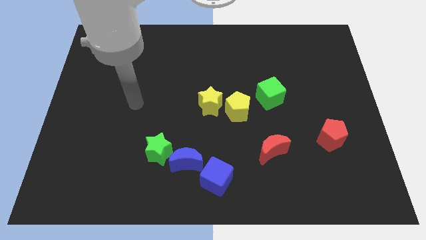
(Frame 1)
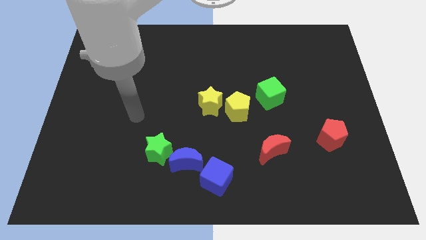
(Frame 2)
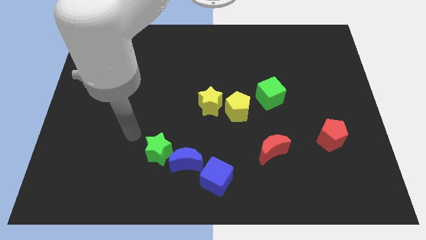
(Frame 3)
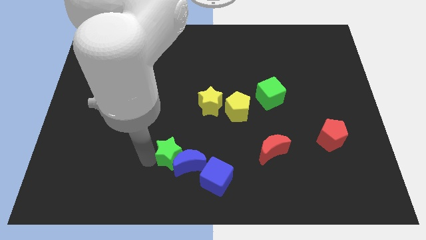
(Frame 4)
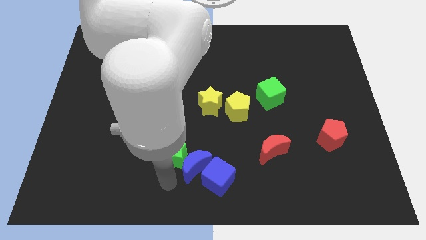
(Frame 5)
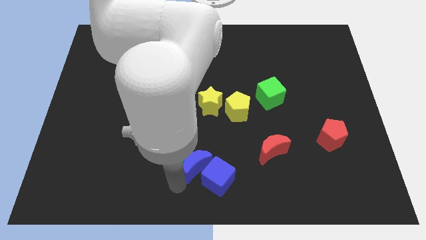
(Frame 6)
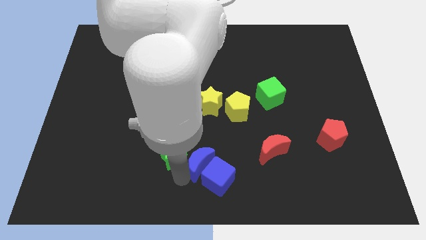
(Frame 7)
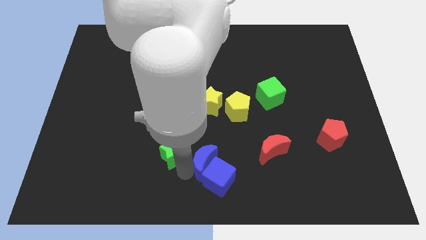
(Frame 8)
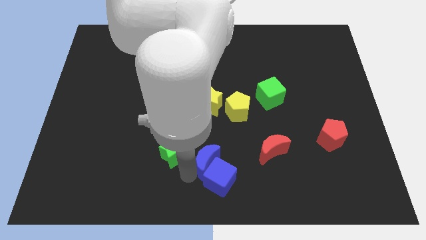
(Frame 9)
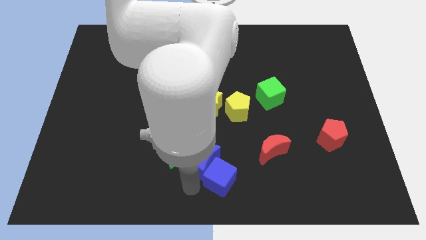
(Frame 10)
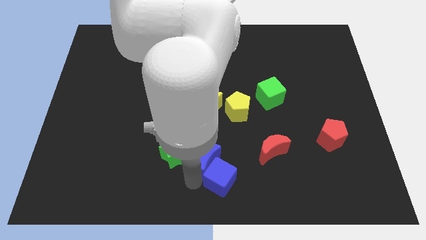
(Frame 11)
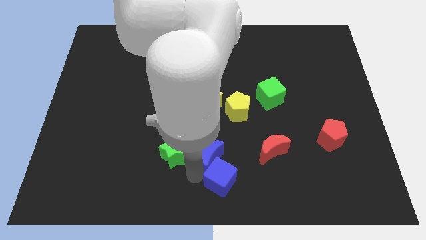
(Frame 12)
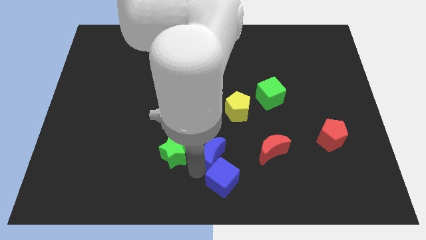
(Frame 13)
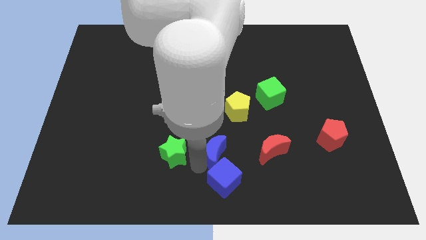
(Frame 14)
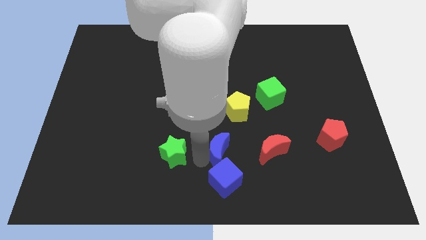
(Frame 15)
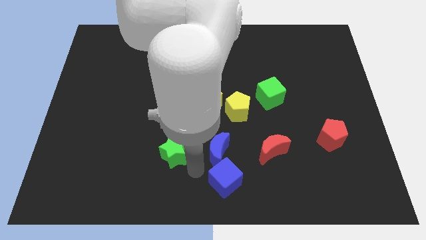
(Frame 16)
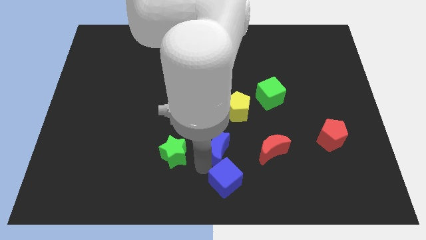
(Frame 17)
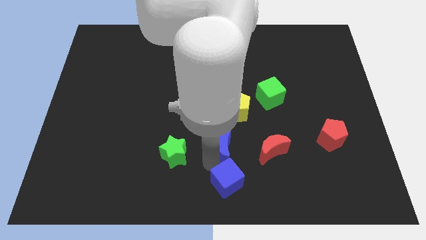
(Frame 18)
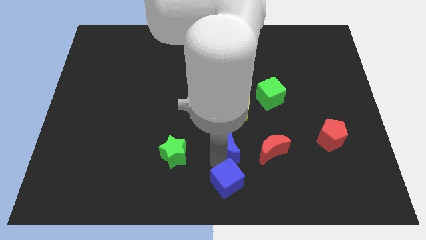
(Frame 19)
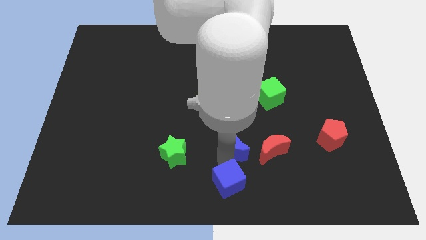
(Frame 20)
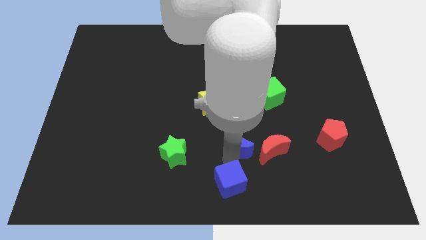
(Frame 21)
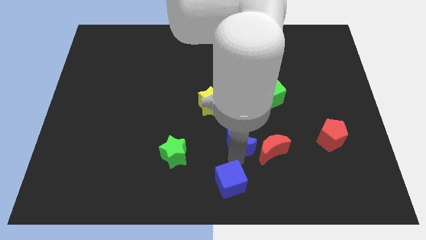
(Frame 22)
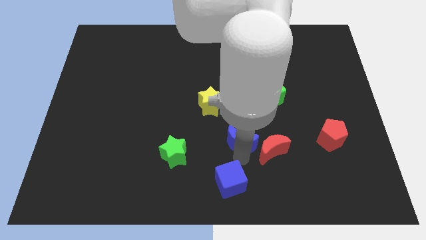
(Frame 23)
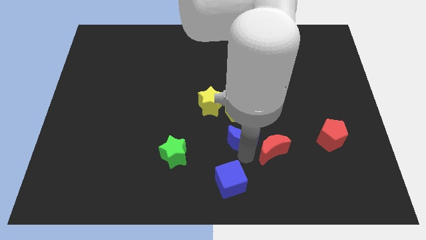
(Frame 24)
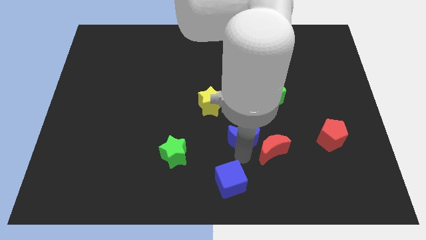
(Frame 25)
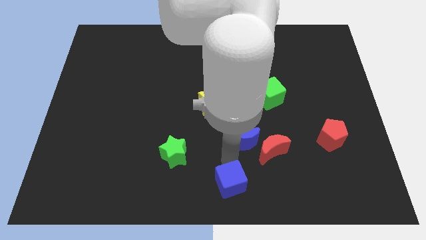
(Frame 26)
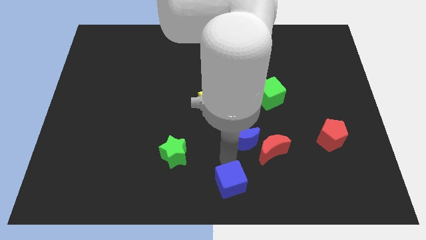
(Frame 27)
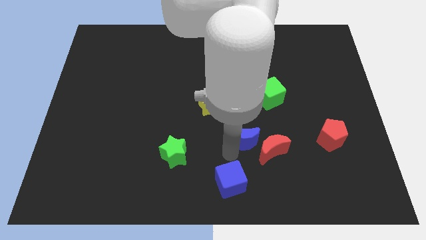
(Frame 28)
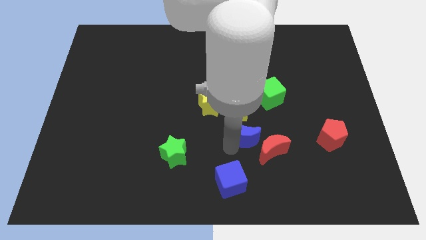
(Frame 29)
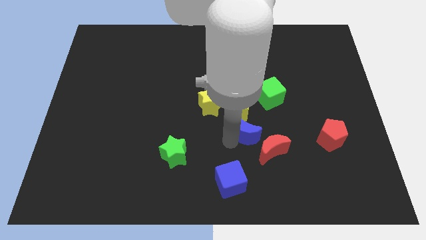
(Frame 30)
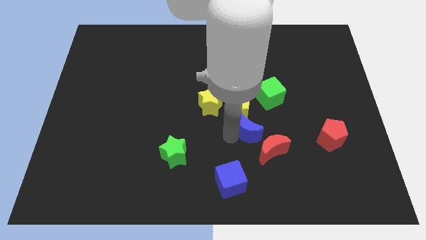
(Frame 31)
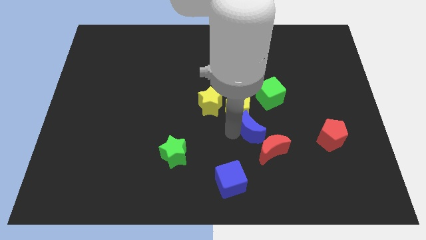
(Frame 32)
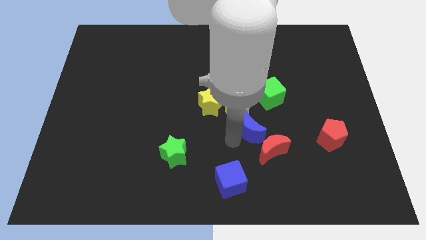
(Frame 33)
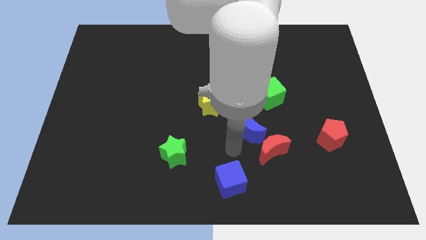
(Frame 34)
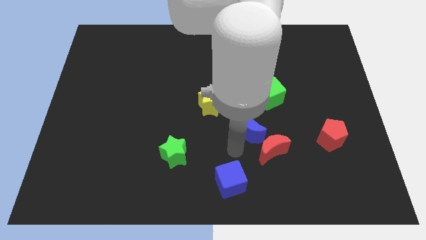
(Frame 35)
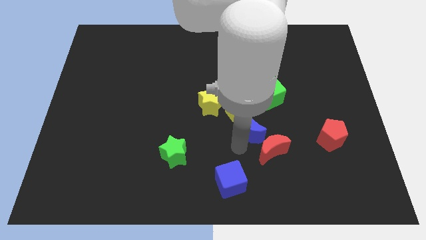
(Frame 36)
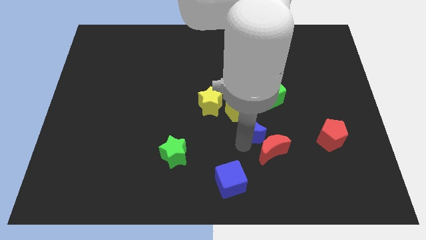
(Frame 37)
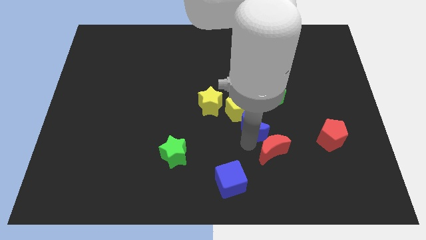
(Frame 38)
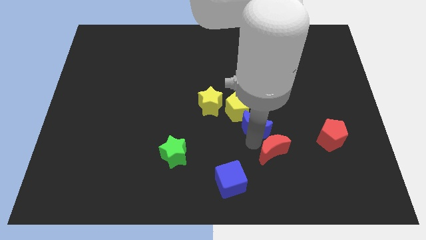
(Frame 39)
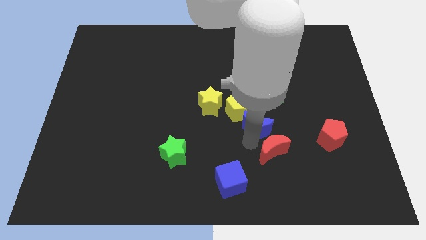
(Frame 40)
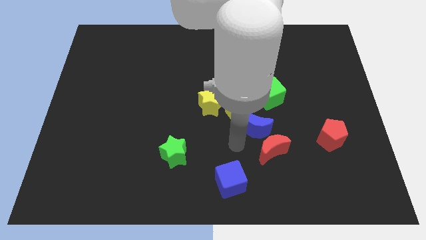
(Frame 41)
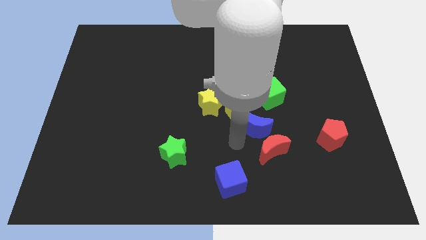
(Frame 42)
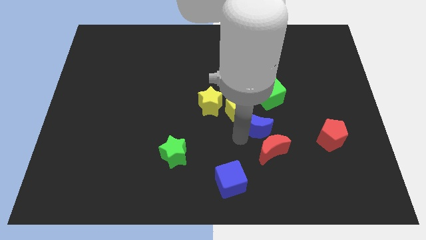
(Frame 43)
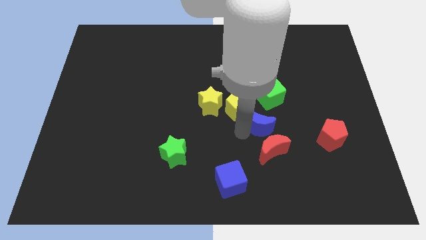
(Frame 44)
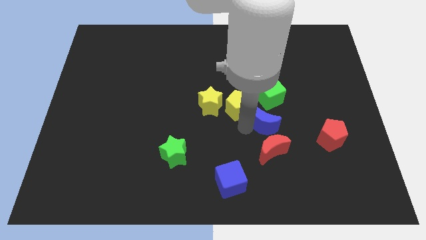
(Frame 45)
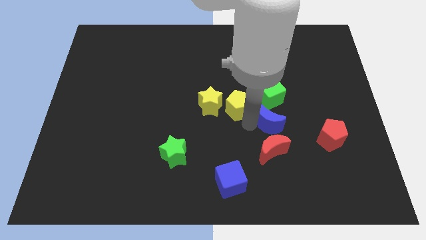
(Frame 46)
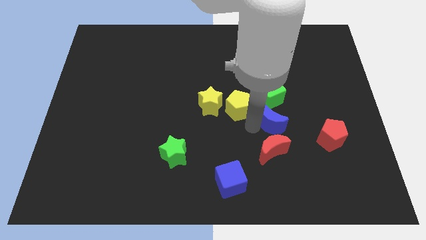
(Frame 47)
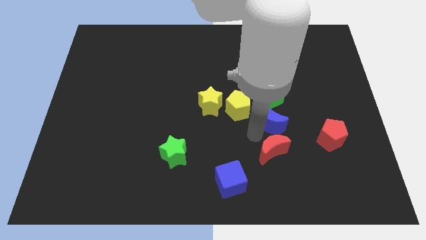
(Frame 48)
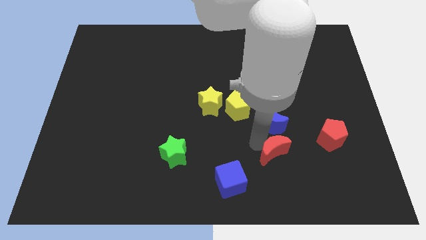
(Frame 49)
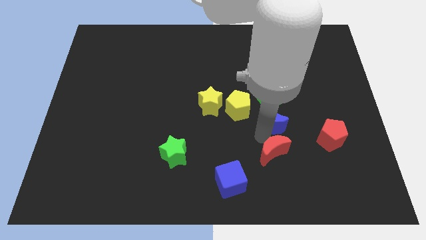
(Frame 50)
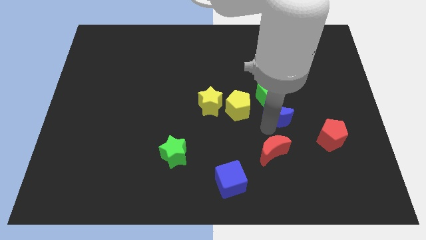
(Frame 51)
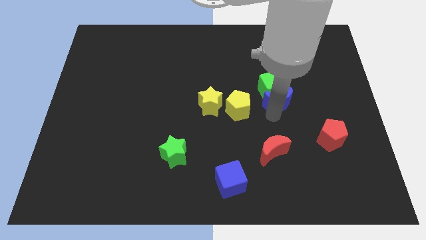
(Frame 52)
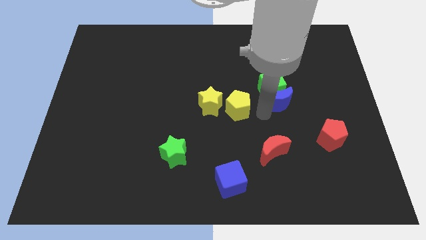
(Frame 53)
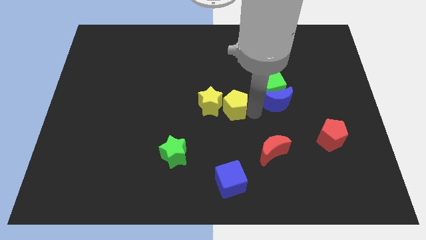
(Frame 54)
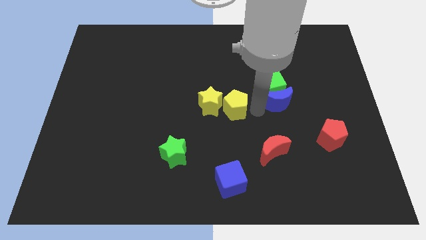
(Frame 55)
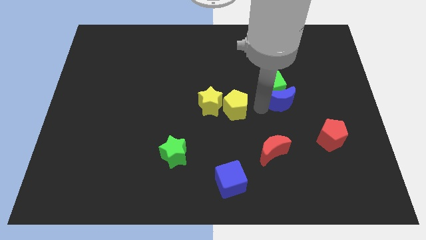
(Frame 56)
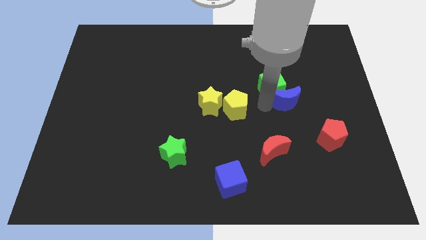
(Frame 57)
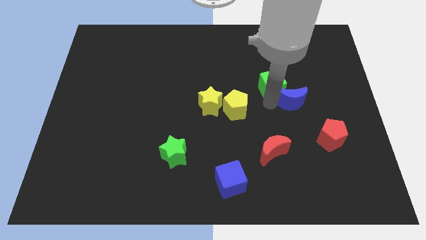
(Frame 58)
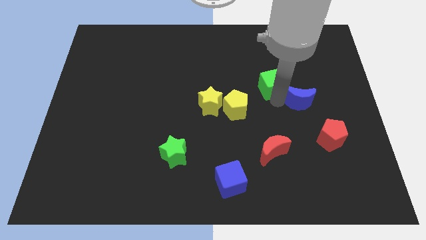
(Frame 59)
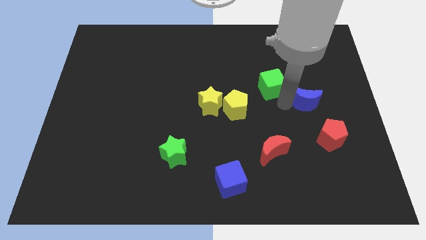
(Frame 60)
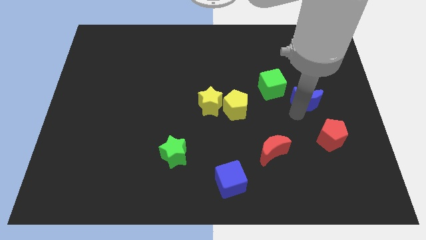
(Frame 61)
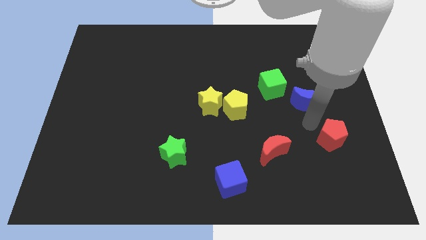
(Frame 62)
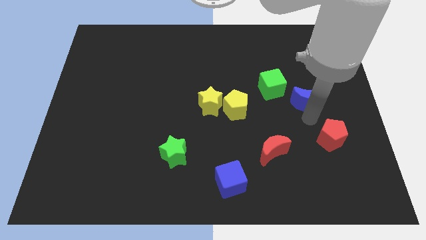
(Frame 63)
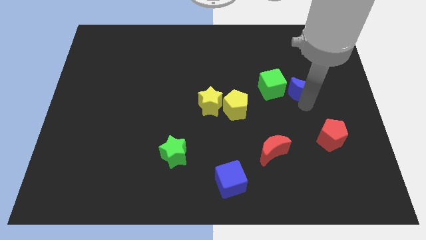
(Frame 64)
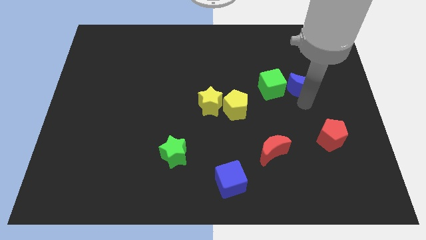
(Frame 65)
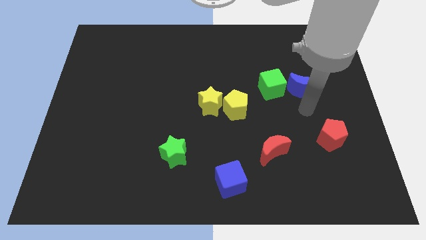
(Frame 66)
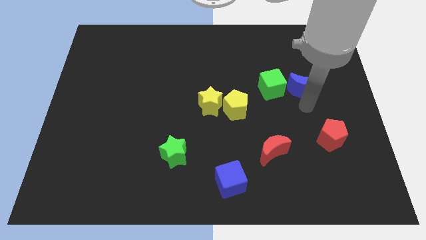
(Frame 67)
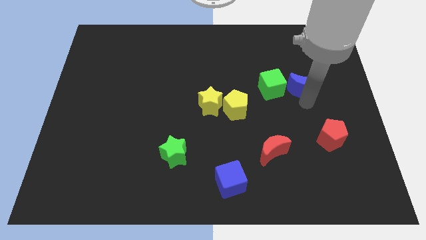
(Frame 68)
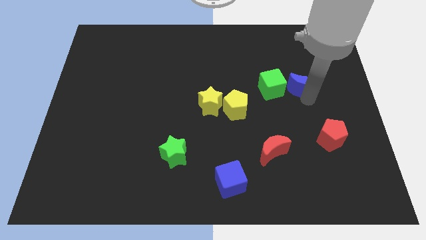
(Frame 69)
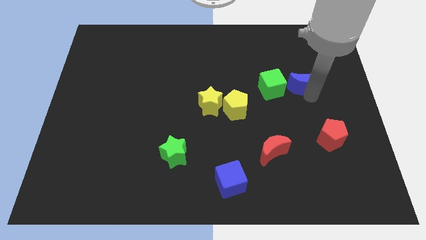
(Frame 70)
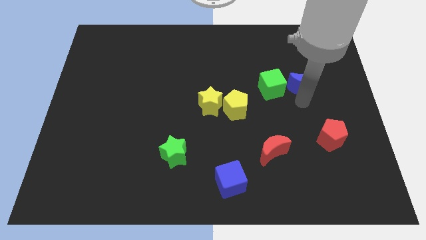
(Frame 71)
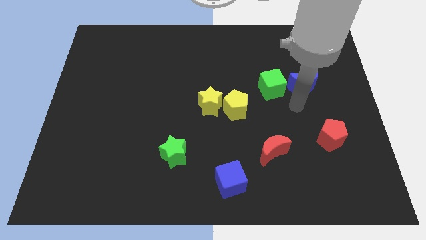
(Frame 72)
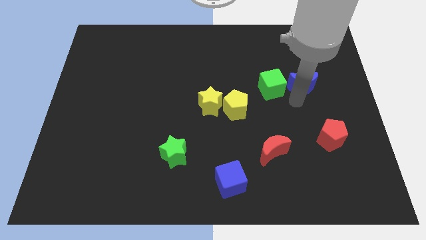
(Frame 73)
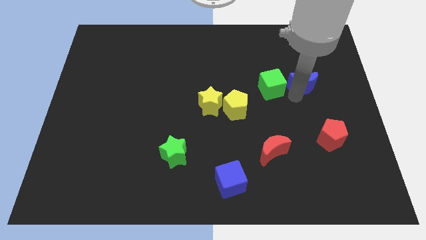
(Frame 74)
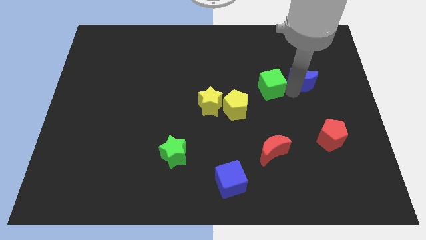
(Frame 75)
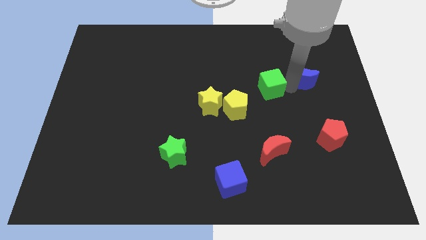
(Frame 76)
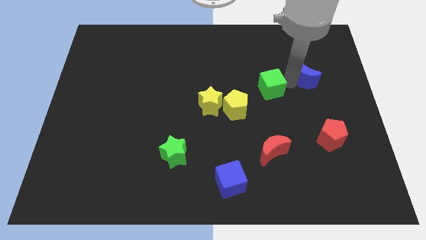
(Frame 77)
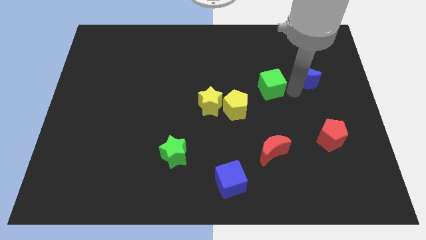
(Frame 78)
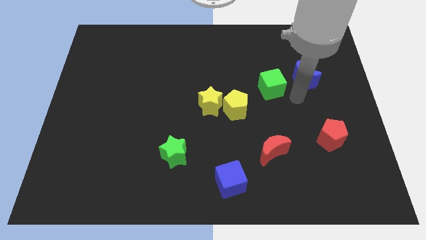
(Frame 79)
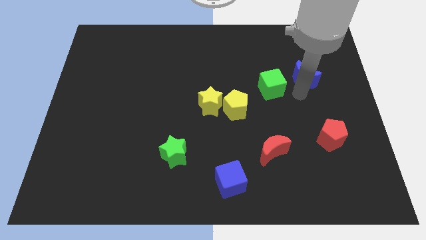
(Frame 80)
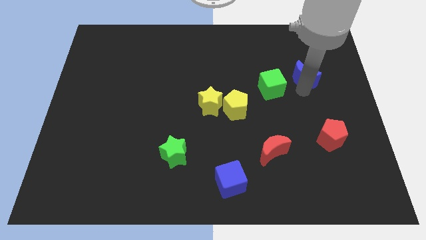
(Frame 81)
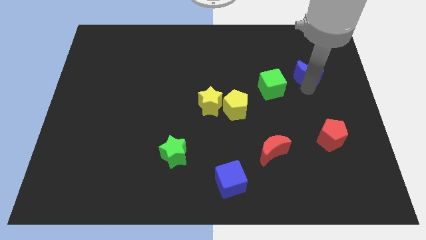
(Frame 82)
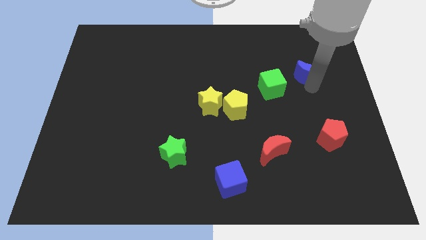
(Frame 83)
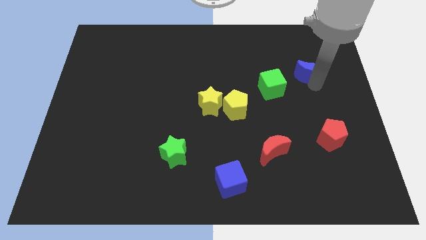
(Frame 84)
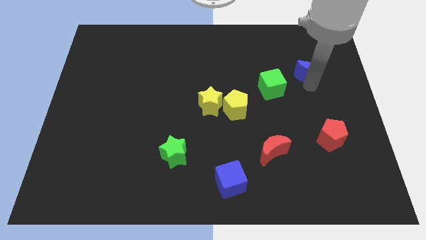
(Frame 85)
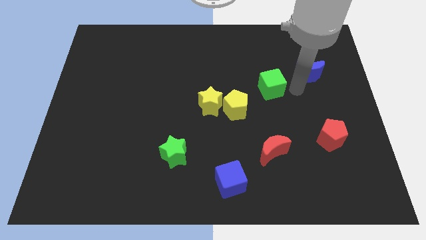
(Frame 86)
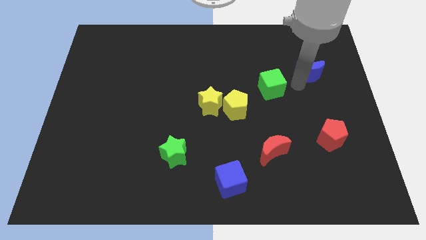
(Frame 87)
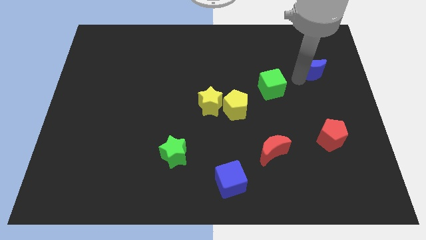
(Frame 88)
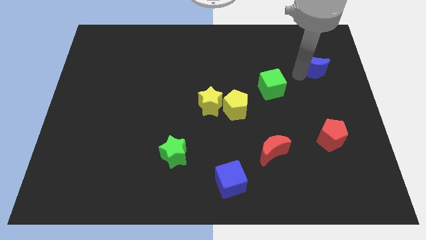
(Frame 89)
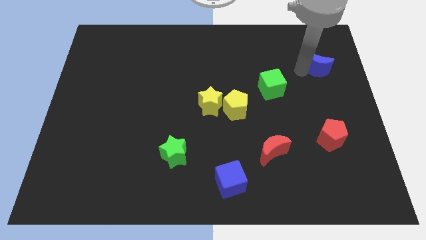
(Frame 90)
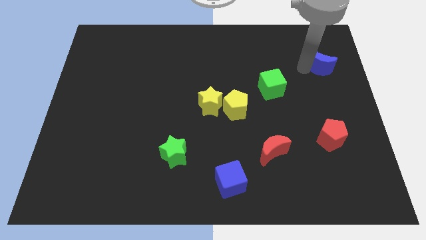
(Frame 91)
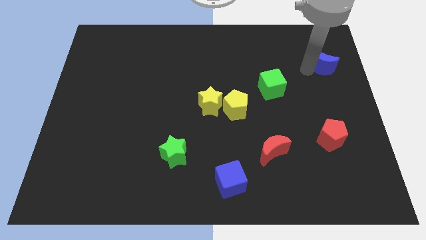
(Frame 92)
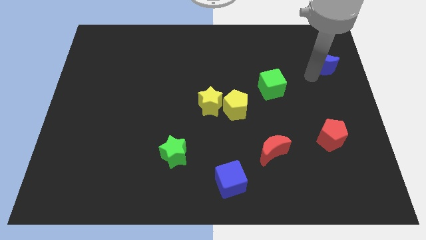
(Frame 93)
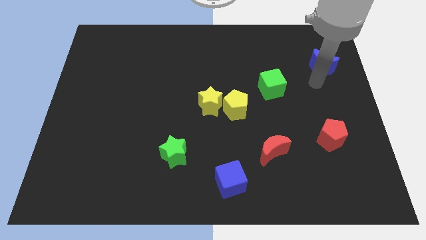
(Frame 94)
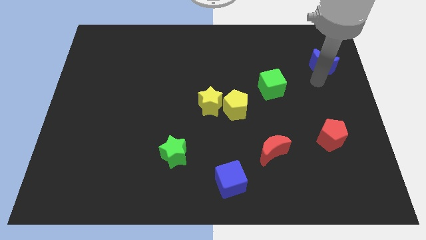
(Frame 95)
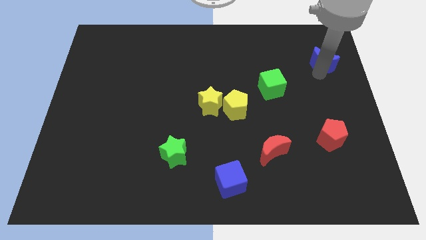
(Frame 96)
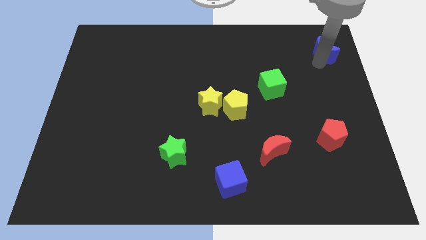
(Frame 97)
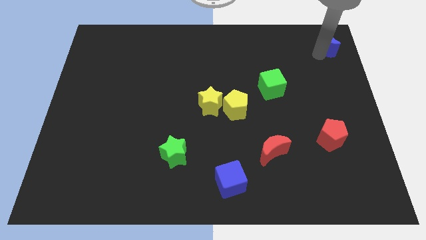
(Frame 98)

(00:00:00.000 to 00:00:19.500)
slide the blue moon to the upper right corner
